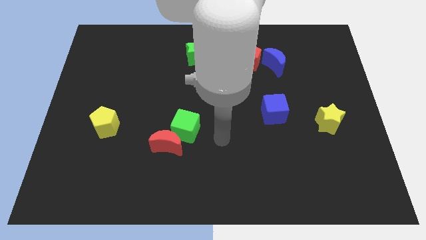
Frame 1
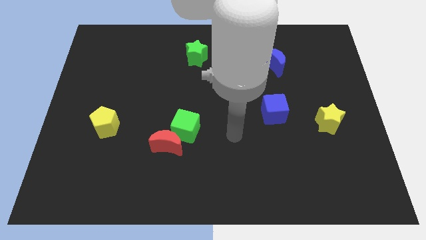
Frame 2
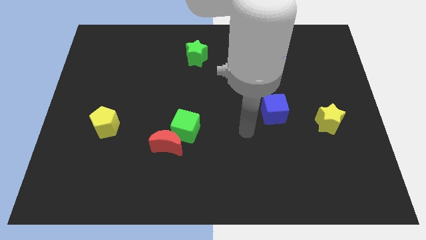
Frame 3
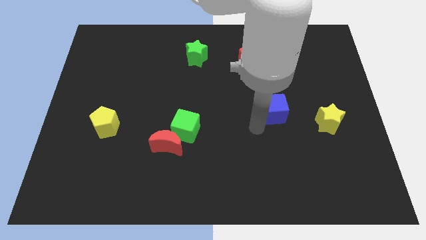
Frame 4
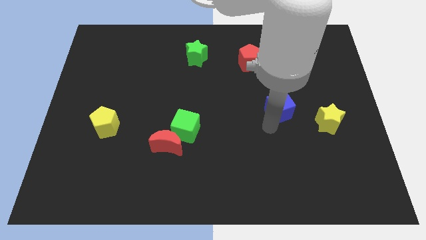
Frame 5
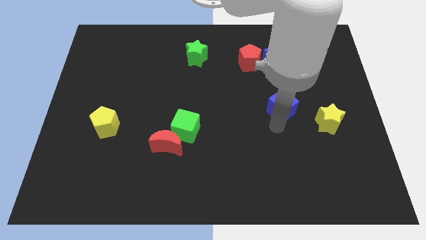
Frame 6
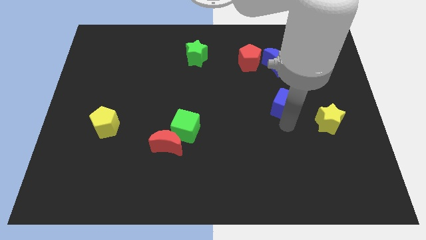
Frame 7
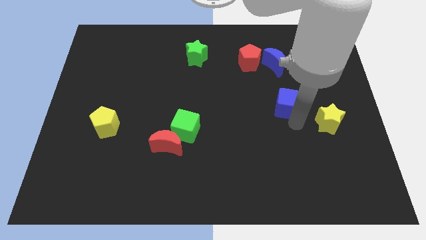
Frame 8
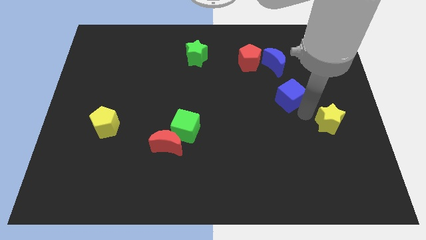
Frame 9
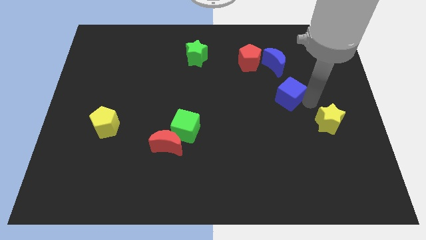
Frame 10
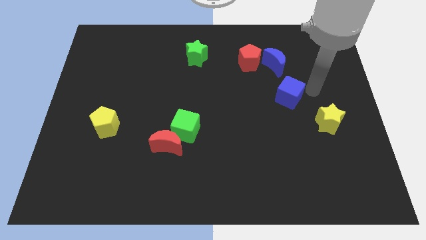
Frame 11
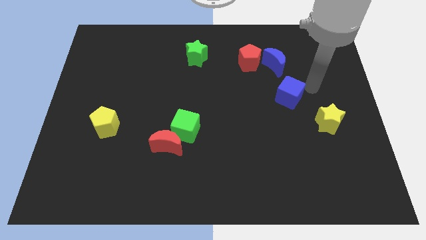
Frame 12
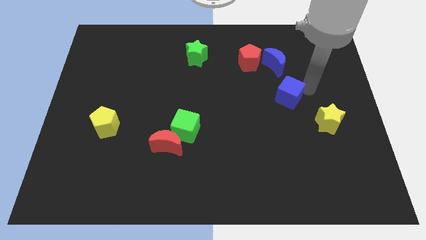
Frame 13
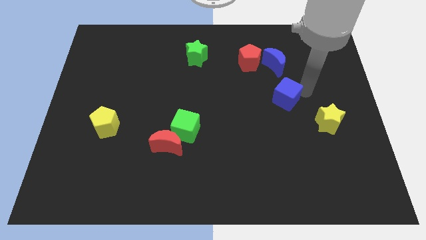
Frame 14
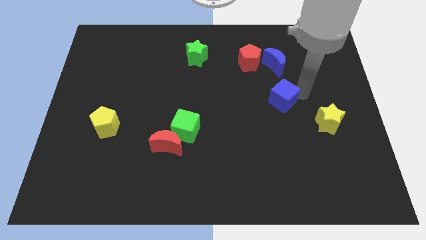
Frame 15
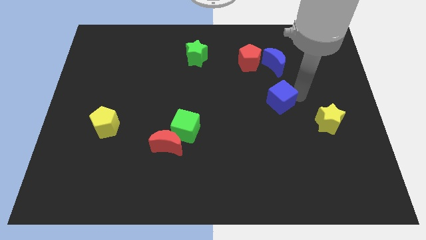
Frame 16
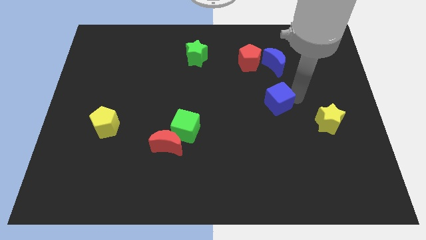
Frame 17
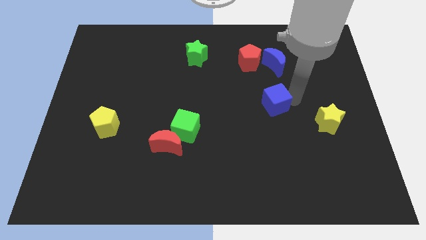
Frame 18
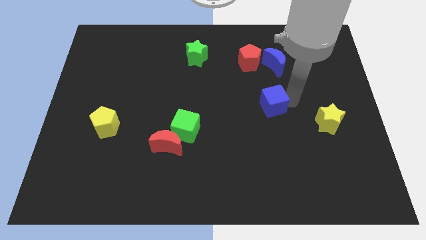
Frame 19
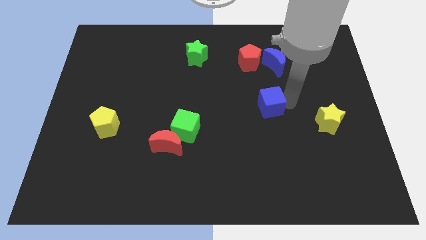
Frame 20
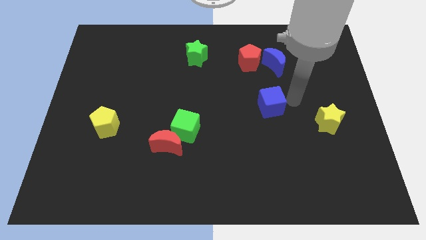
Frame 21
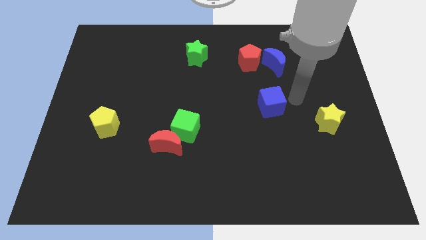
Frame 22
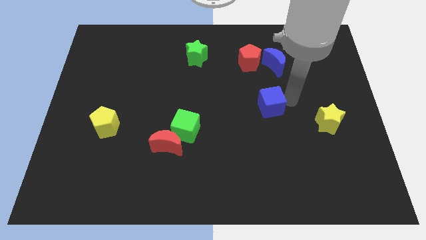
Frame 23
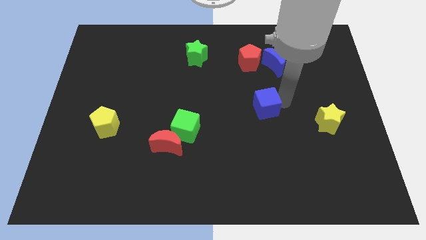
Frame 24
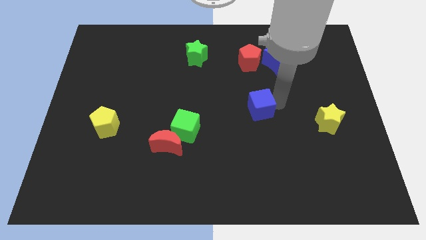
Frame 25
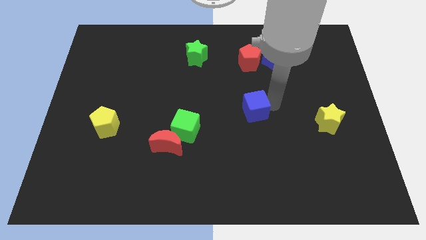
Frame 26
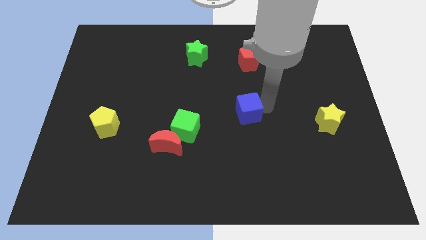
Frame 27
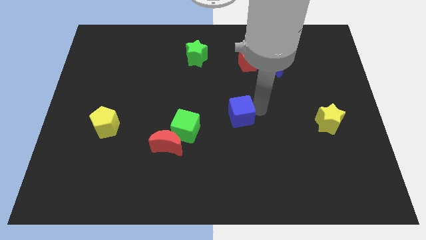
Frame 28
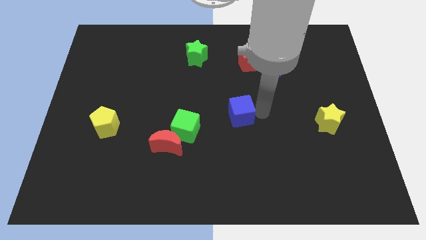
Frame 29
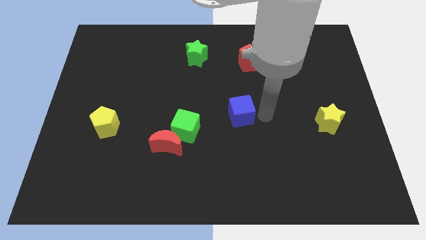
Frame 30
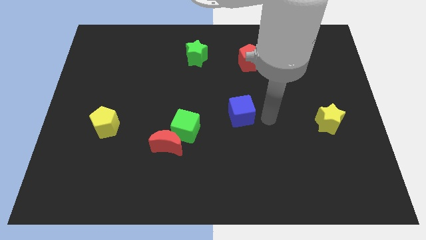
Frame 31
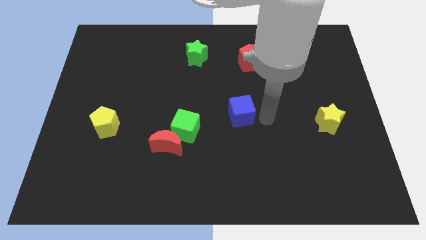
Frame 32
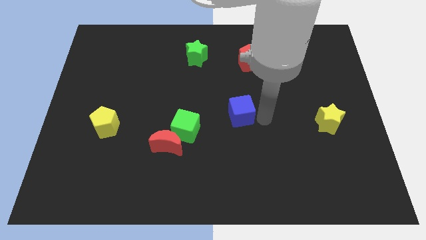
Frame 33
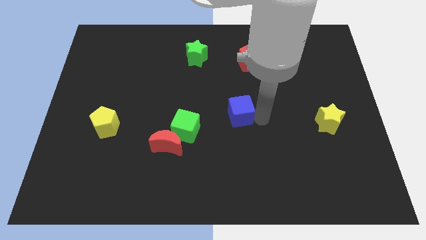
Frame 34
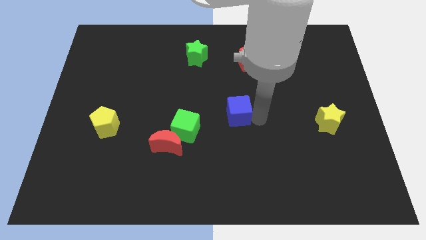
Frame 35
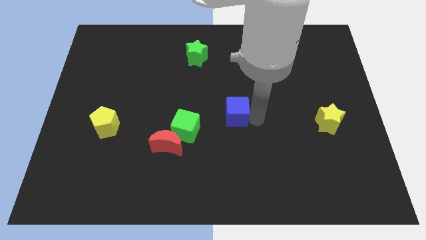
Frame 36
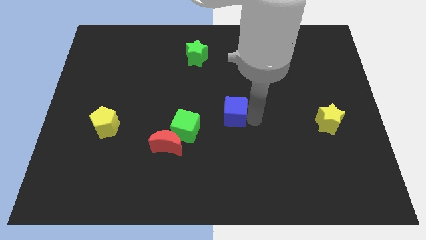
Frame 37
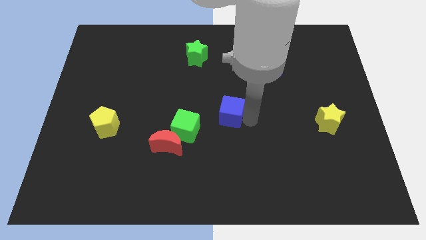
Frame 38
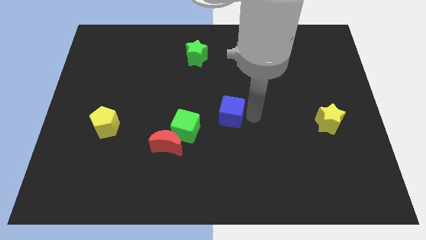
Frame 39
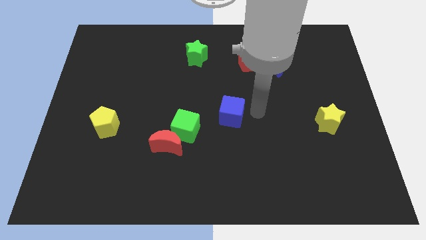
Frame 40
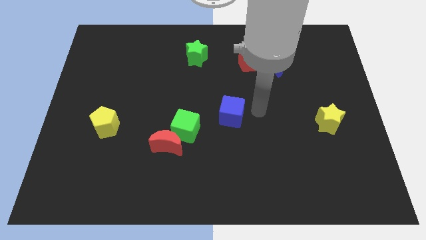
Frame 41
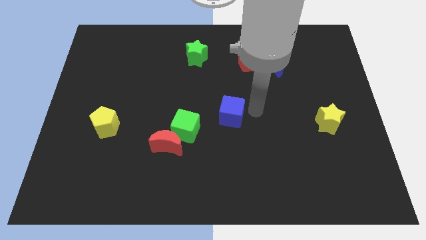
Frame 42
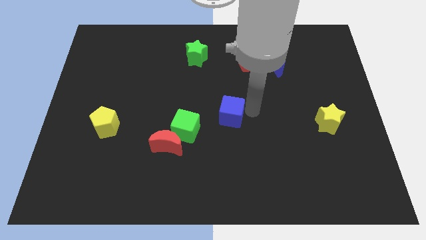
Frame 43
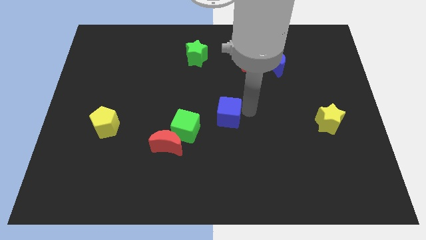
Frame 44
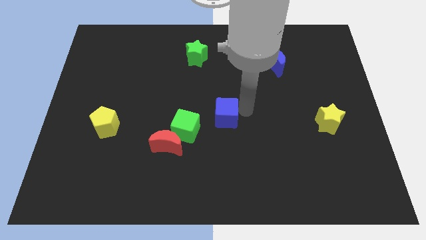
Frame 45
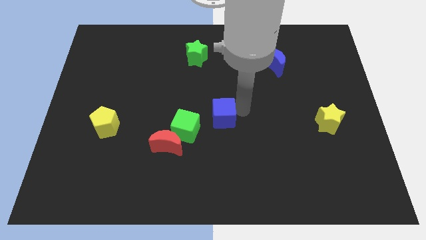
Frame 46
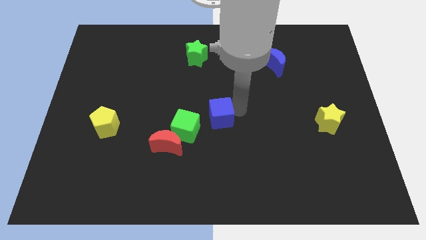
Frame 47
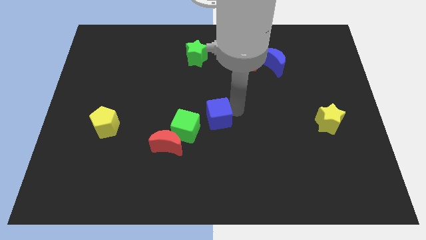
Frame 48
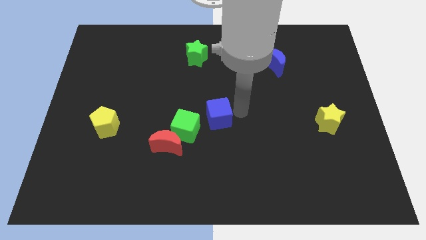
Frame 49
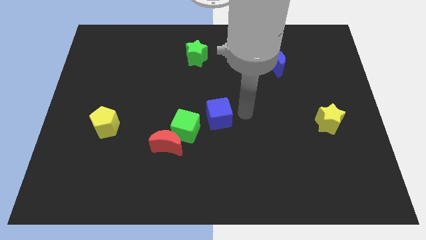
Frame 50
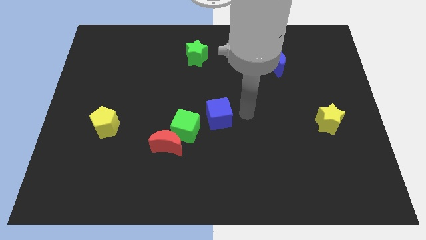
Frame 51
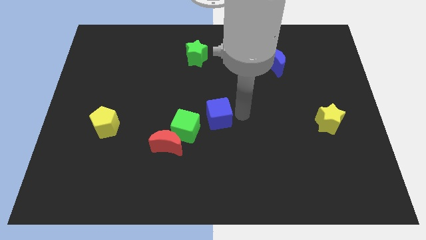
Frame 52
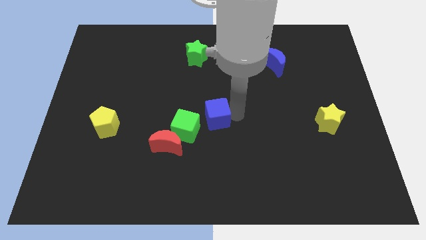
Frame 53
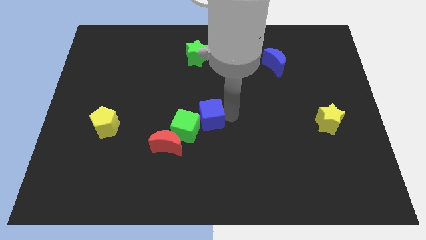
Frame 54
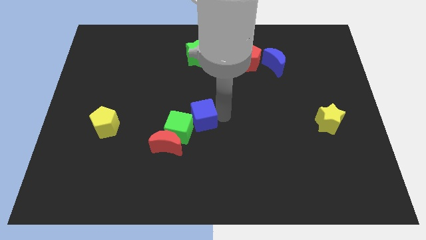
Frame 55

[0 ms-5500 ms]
put the blue cube towards the green cube

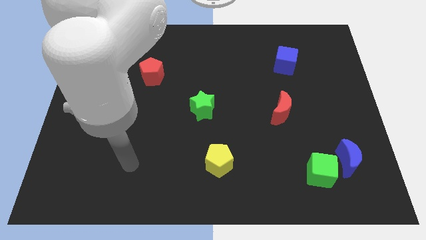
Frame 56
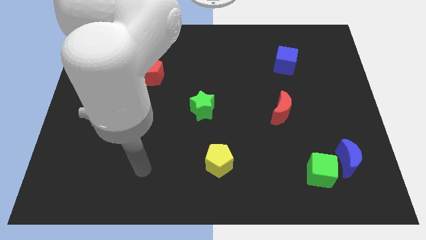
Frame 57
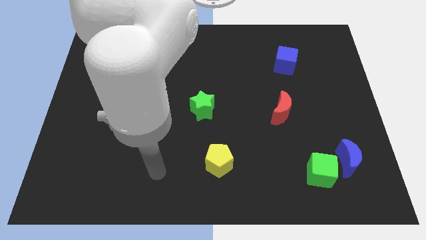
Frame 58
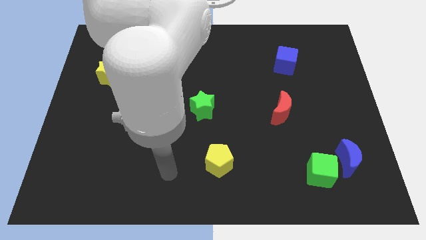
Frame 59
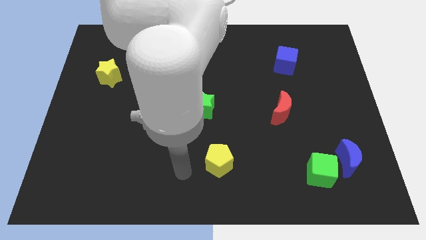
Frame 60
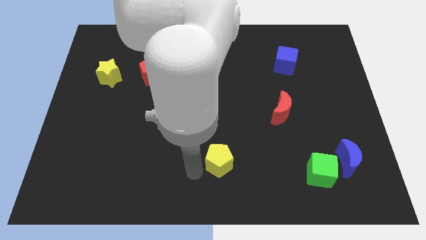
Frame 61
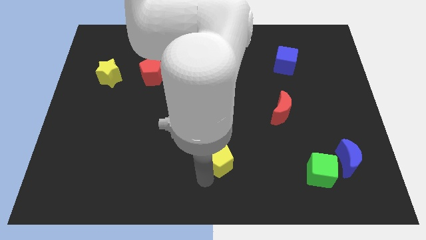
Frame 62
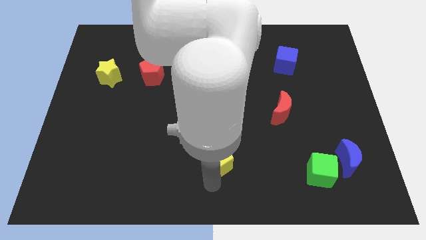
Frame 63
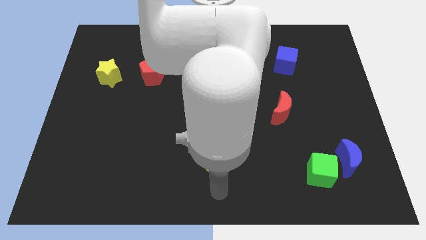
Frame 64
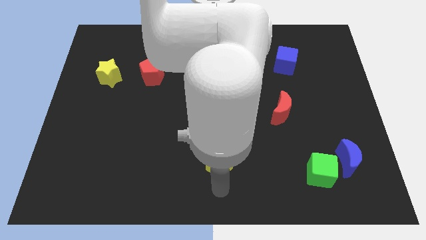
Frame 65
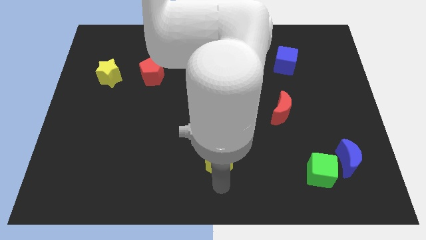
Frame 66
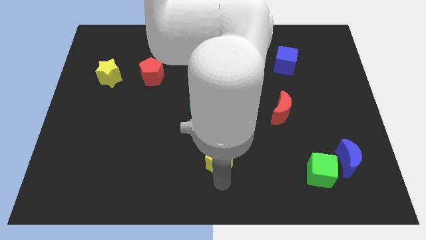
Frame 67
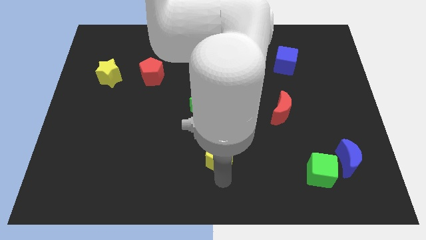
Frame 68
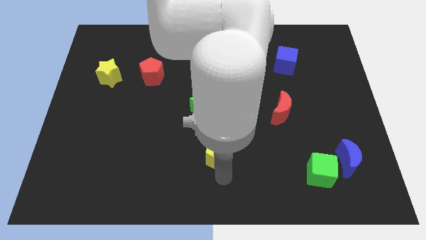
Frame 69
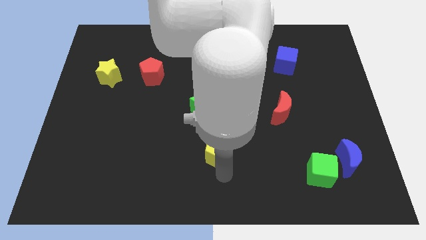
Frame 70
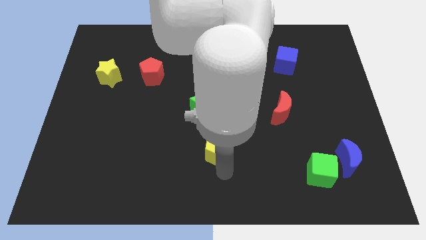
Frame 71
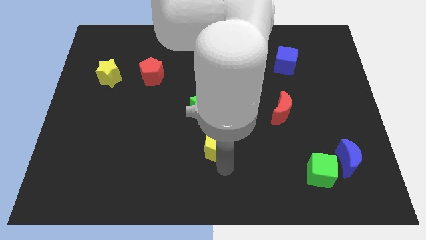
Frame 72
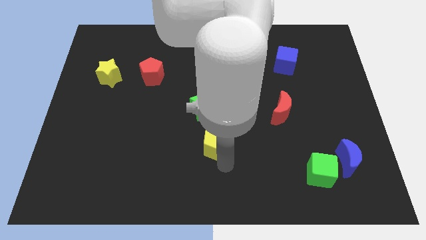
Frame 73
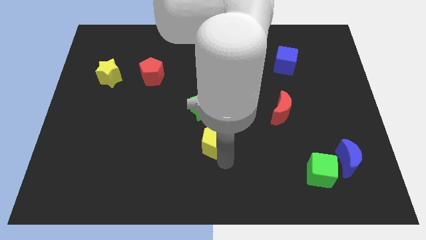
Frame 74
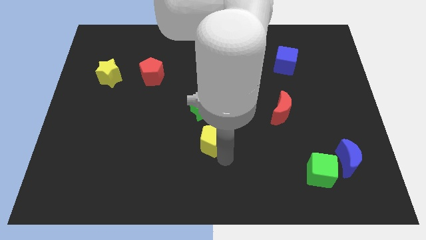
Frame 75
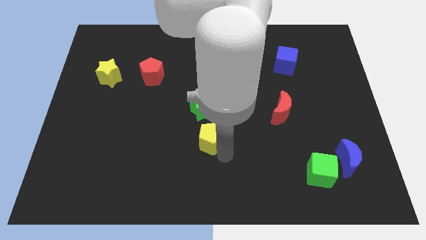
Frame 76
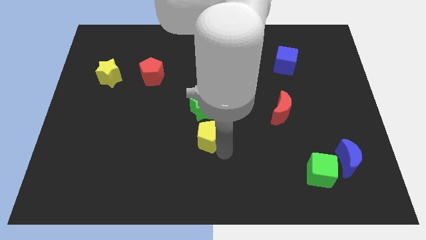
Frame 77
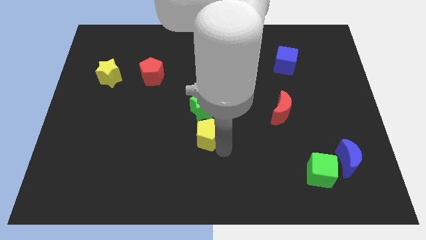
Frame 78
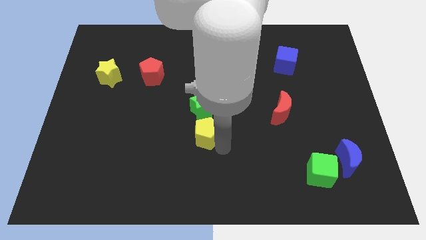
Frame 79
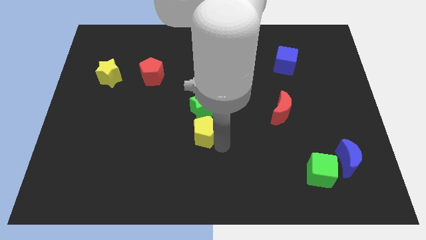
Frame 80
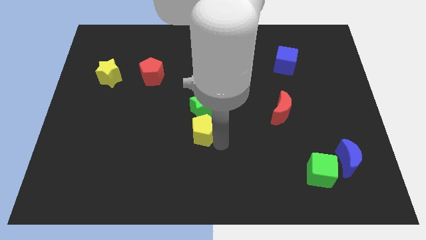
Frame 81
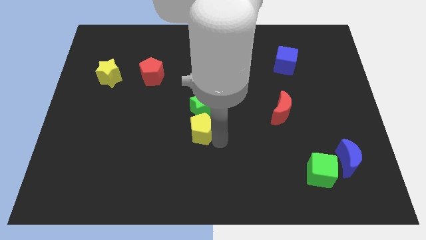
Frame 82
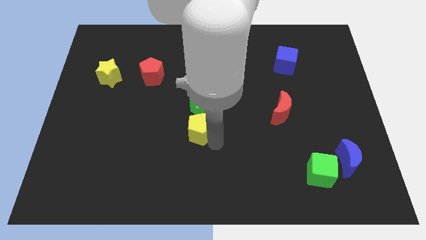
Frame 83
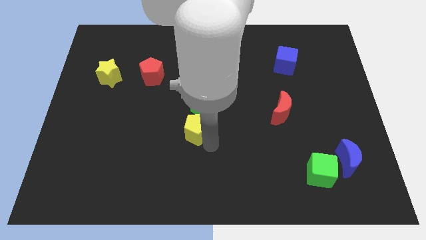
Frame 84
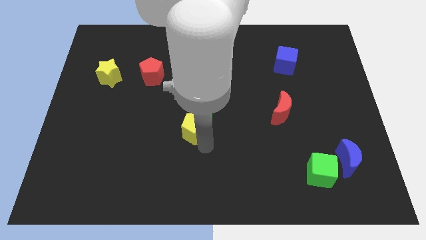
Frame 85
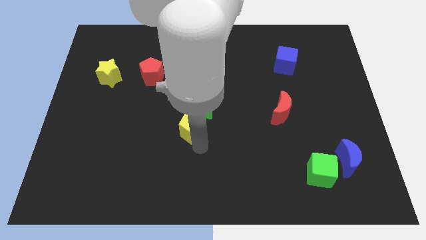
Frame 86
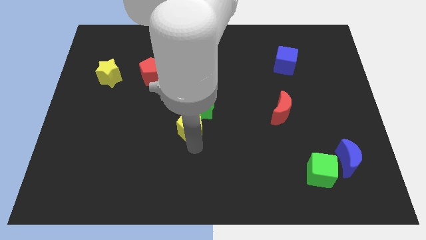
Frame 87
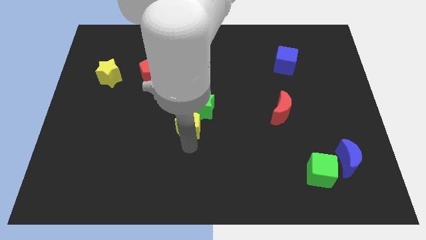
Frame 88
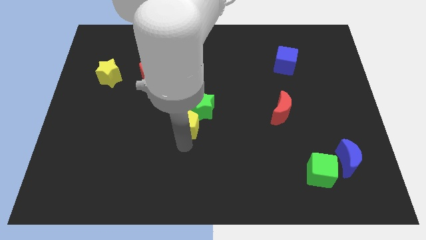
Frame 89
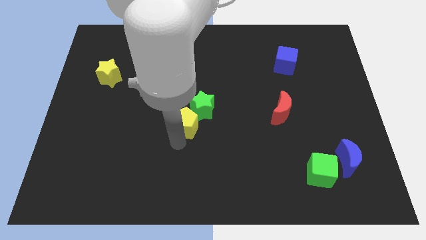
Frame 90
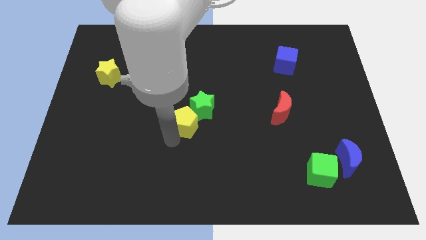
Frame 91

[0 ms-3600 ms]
push the yellow pentagon to the green star
